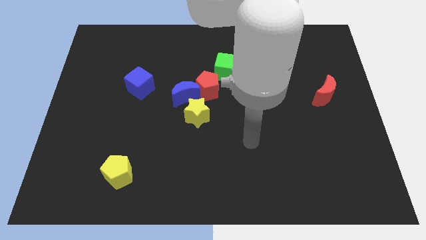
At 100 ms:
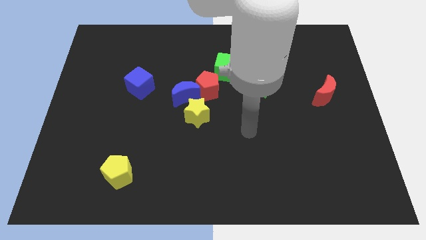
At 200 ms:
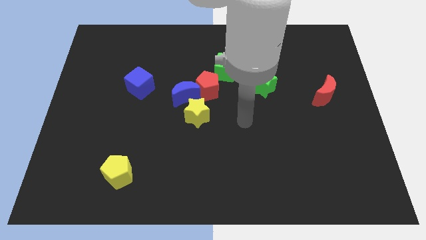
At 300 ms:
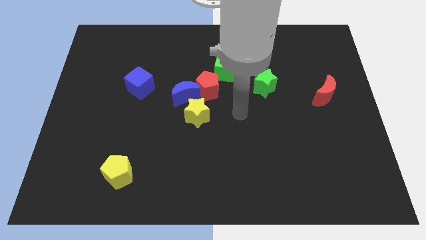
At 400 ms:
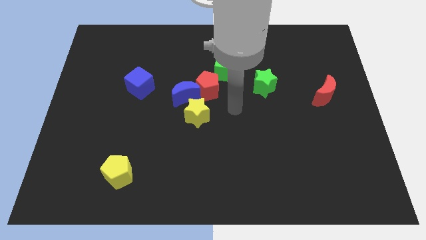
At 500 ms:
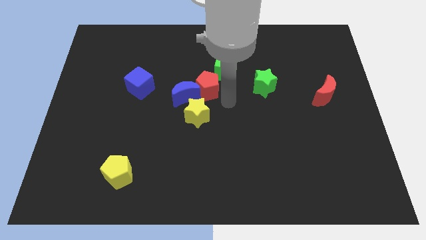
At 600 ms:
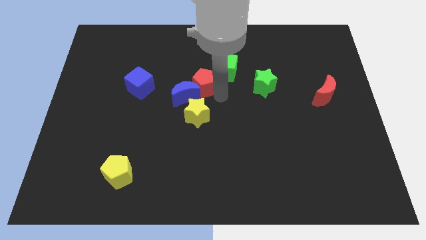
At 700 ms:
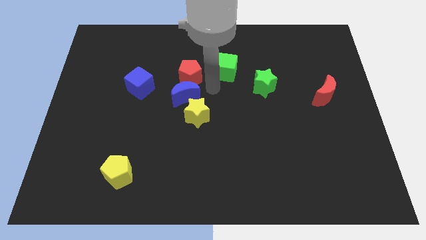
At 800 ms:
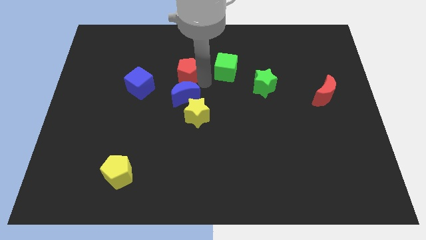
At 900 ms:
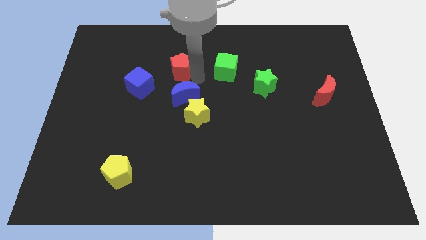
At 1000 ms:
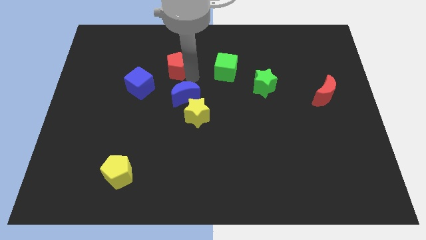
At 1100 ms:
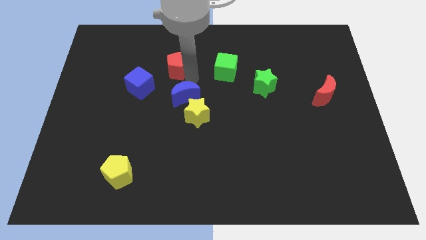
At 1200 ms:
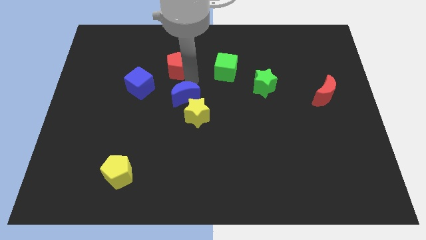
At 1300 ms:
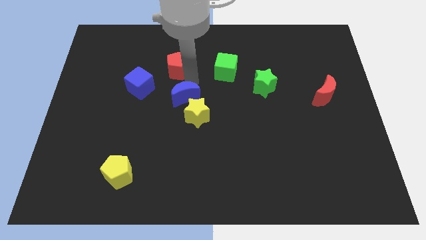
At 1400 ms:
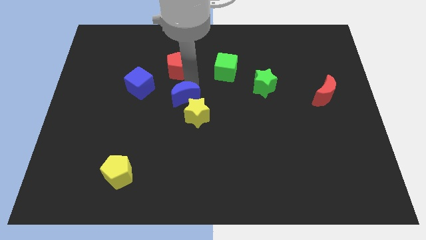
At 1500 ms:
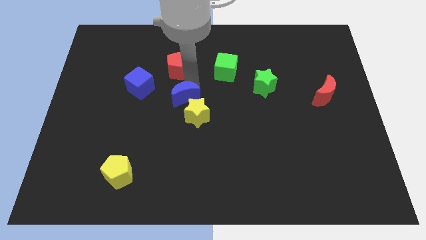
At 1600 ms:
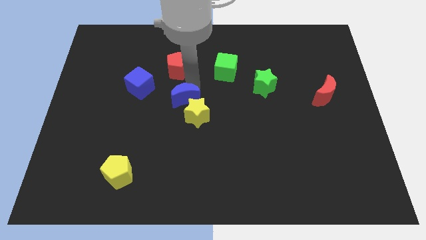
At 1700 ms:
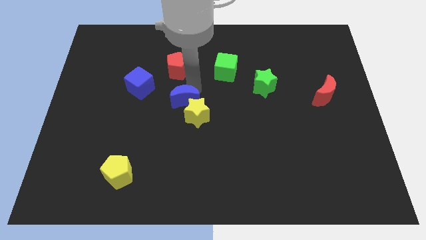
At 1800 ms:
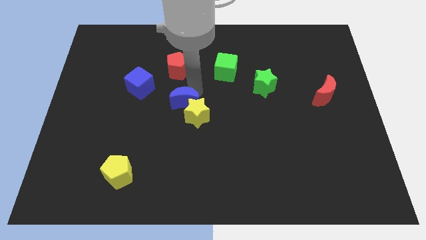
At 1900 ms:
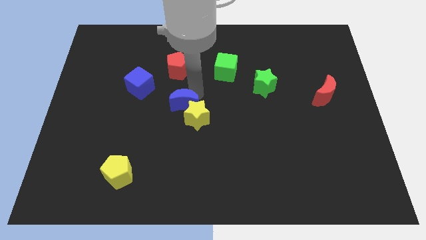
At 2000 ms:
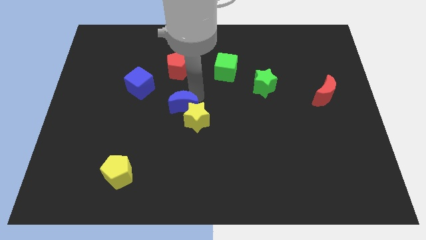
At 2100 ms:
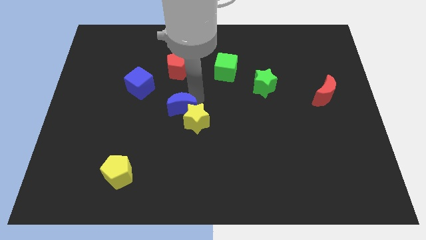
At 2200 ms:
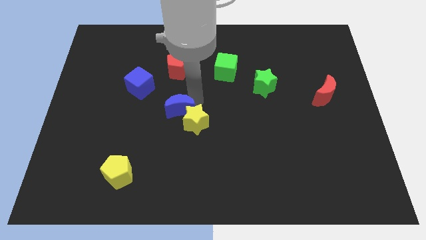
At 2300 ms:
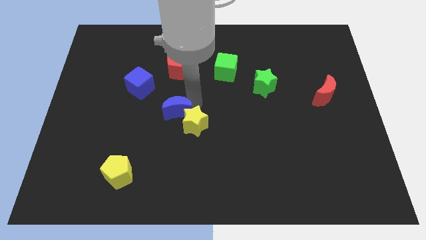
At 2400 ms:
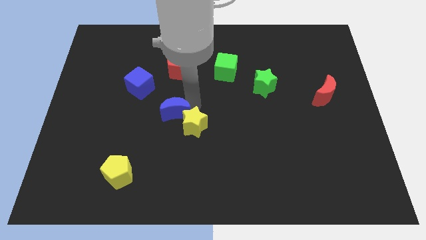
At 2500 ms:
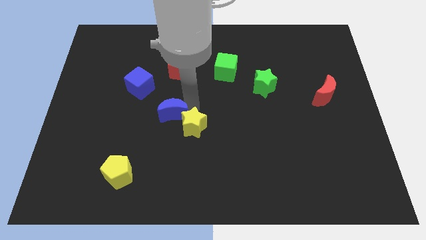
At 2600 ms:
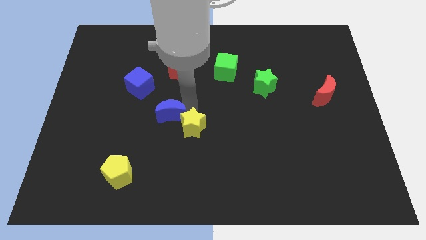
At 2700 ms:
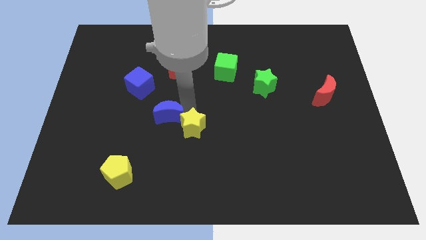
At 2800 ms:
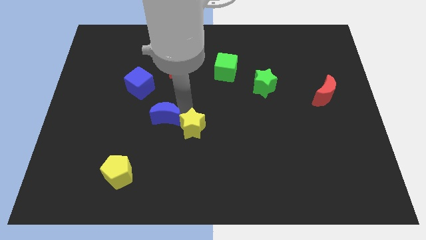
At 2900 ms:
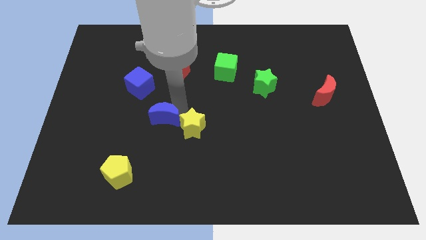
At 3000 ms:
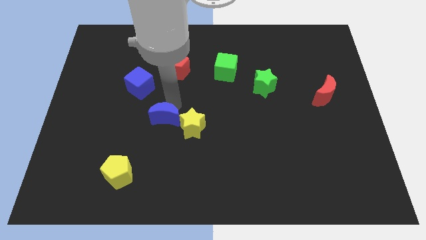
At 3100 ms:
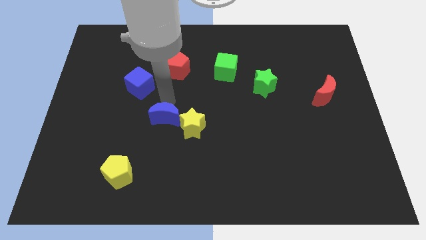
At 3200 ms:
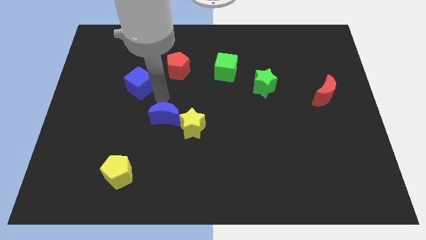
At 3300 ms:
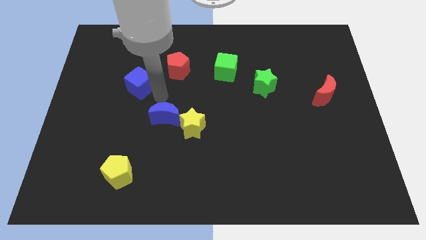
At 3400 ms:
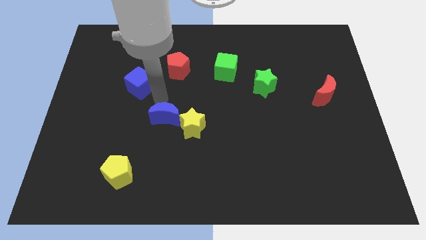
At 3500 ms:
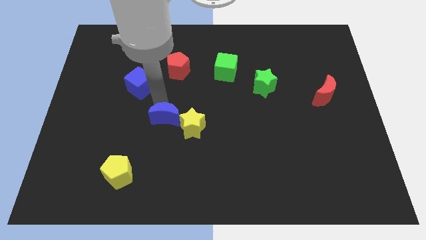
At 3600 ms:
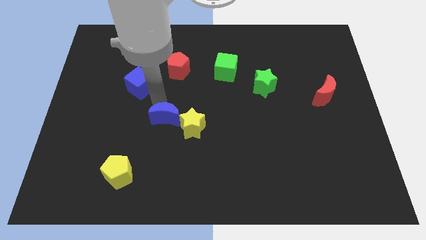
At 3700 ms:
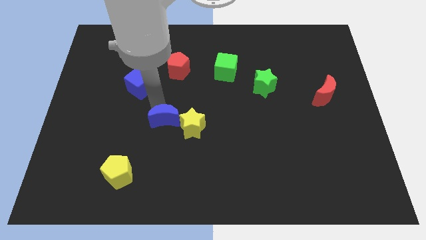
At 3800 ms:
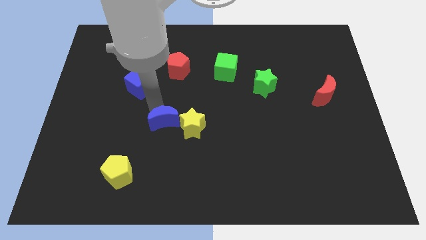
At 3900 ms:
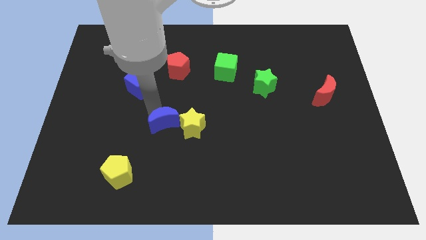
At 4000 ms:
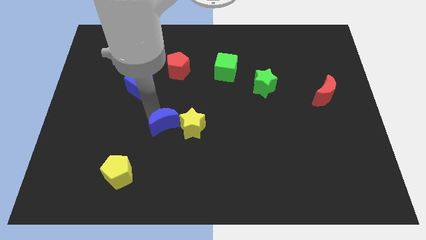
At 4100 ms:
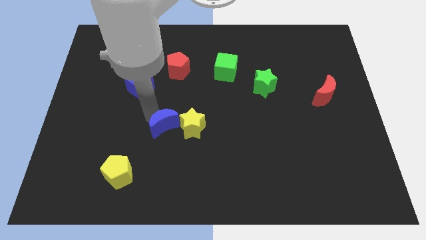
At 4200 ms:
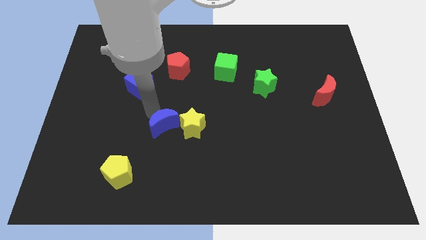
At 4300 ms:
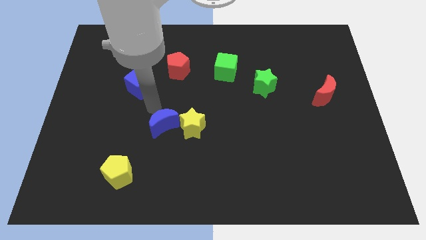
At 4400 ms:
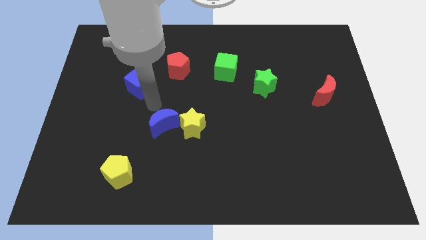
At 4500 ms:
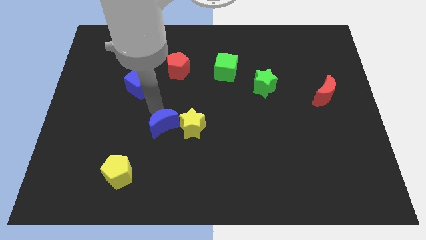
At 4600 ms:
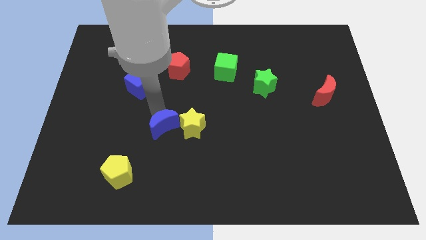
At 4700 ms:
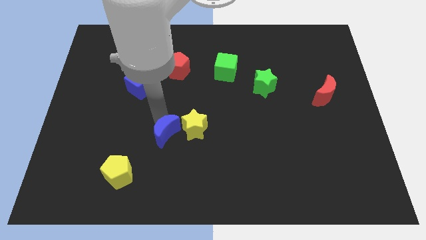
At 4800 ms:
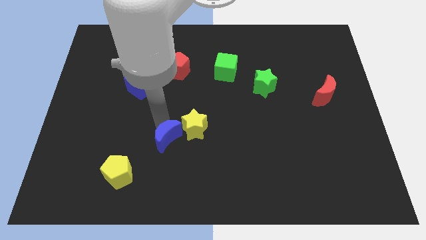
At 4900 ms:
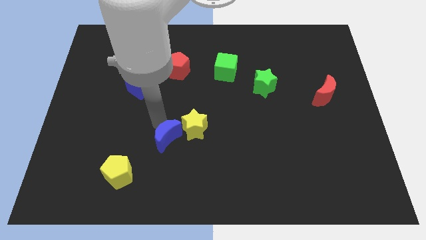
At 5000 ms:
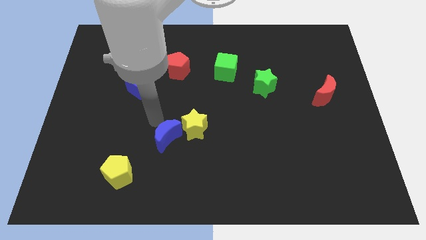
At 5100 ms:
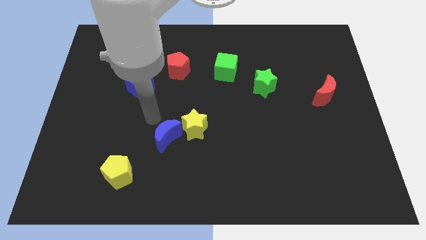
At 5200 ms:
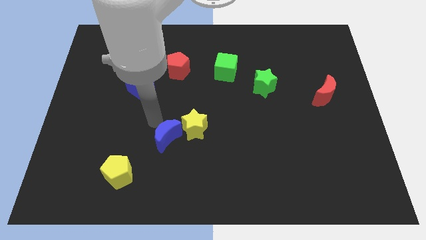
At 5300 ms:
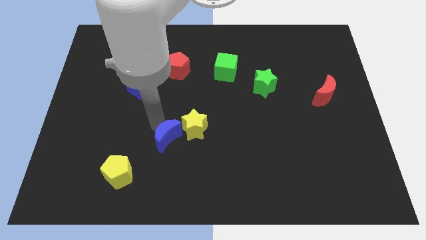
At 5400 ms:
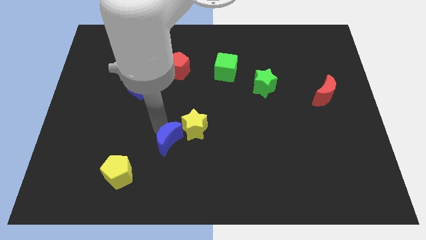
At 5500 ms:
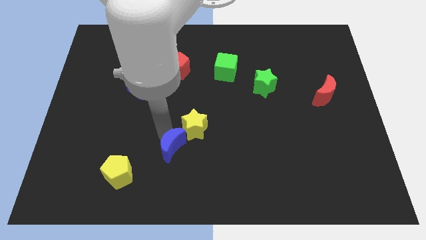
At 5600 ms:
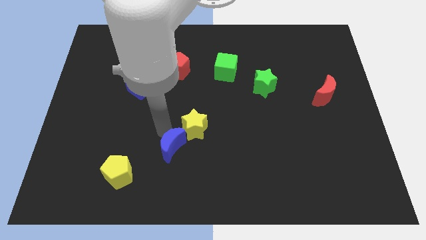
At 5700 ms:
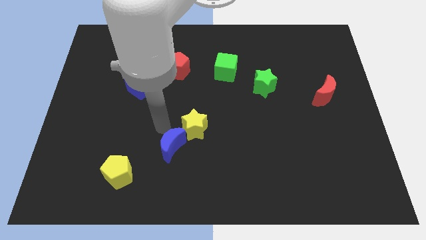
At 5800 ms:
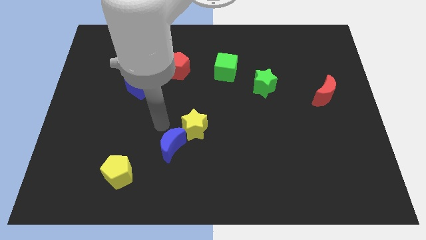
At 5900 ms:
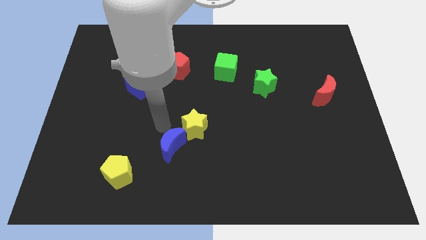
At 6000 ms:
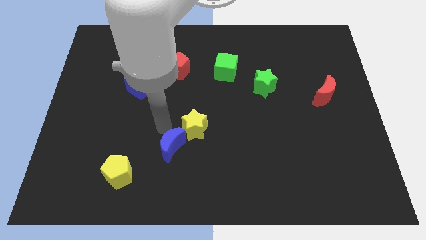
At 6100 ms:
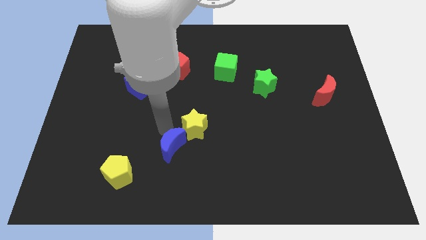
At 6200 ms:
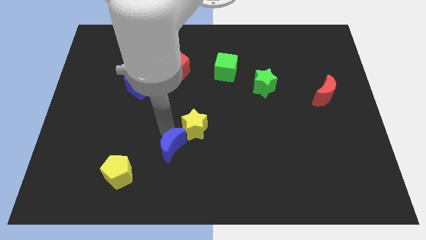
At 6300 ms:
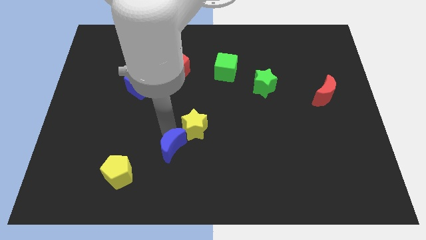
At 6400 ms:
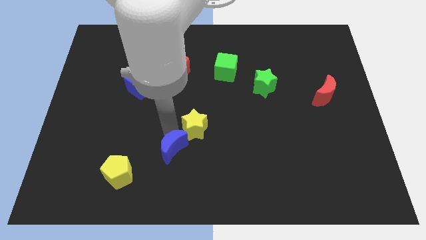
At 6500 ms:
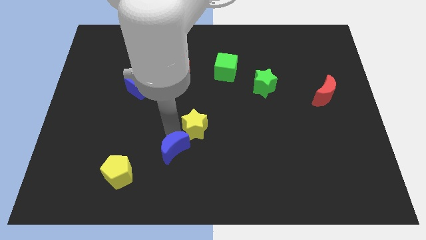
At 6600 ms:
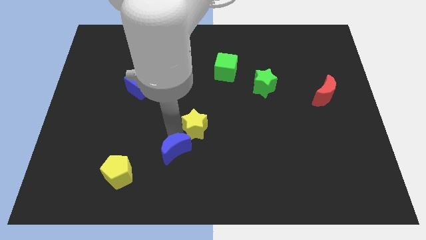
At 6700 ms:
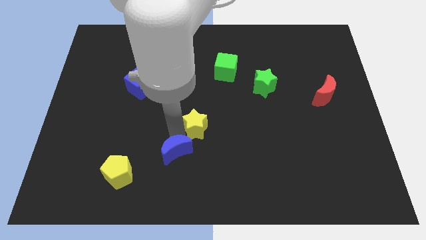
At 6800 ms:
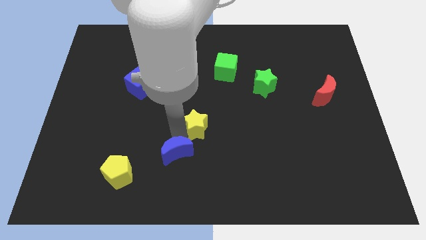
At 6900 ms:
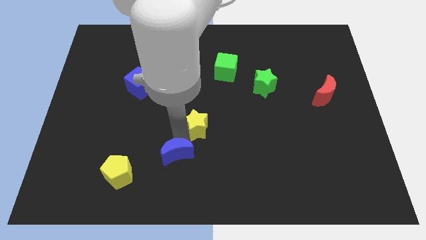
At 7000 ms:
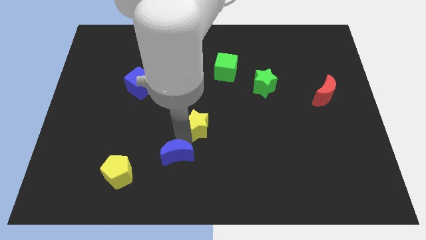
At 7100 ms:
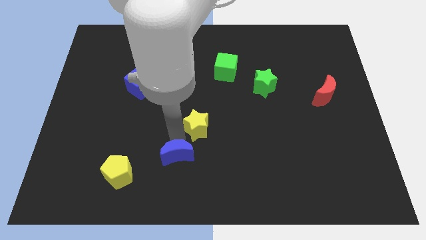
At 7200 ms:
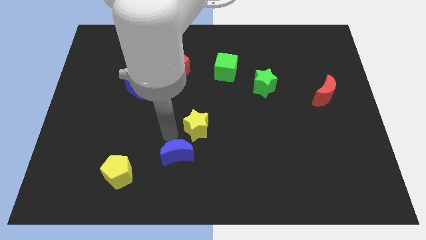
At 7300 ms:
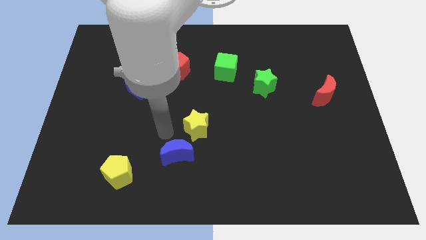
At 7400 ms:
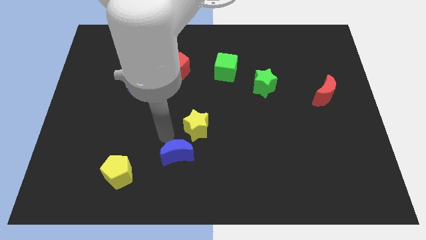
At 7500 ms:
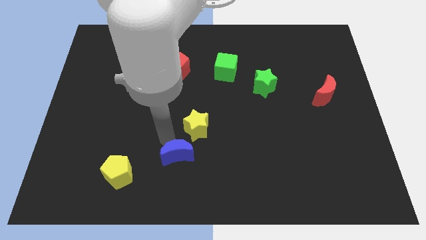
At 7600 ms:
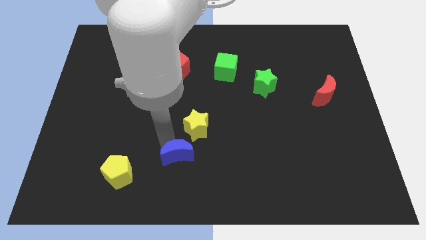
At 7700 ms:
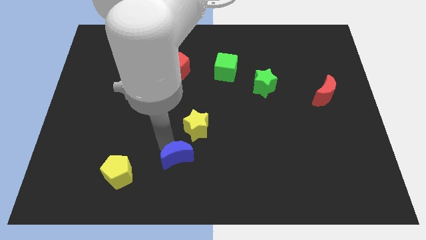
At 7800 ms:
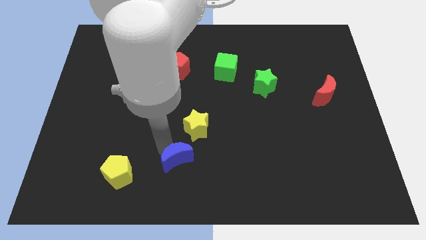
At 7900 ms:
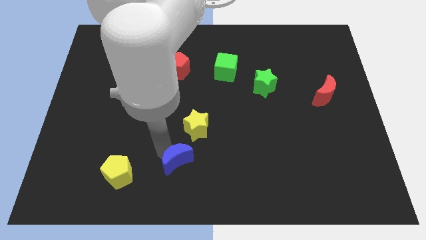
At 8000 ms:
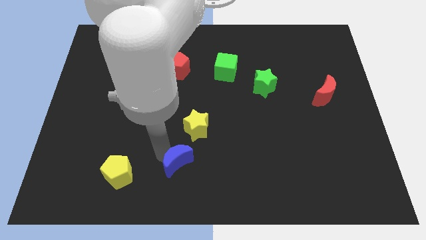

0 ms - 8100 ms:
push the blue moon to the bottom

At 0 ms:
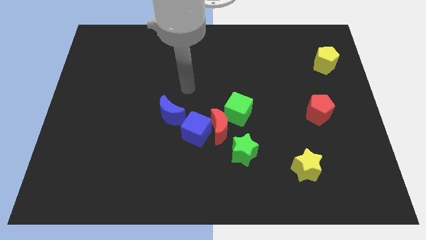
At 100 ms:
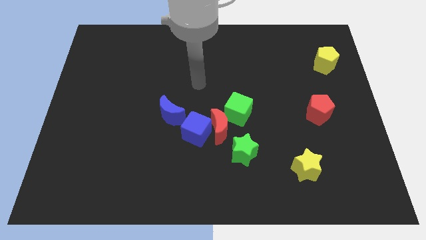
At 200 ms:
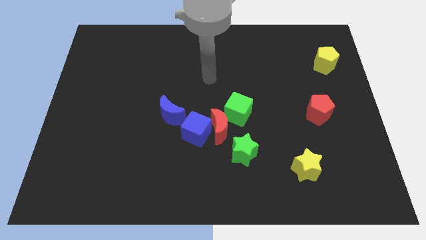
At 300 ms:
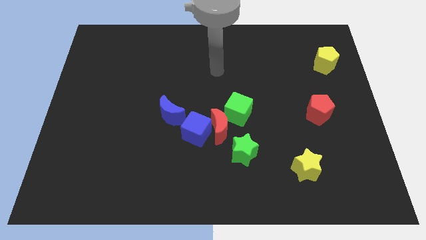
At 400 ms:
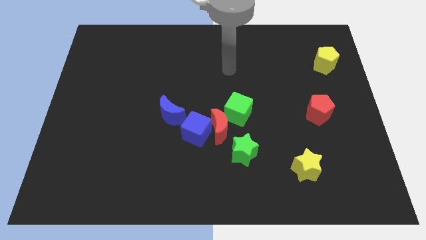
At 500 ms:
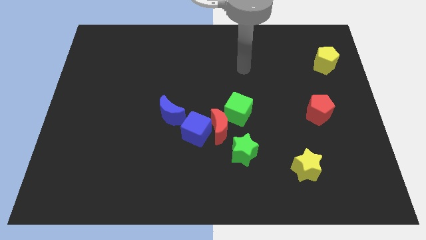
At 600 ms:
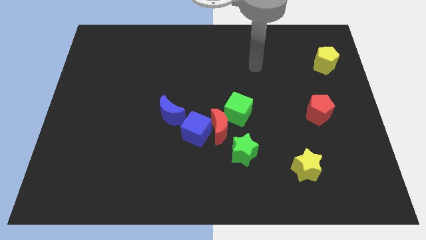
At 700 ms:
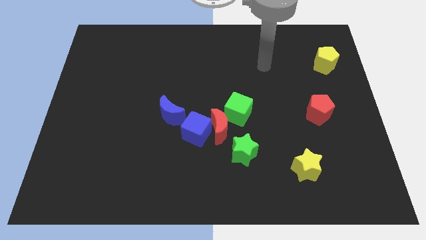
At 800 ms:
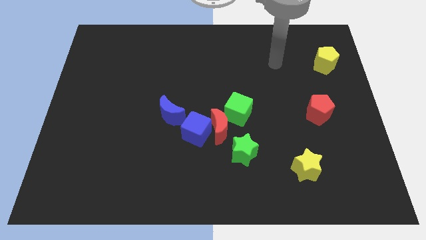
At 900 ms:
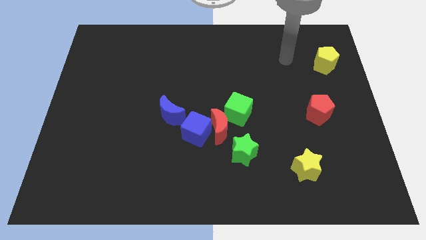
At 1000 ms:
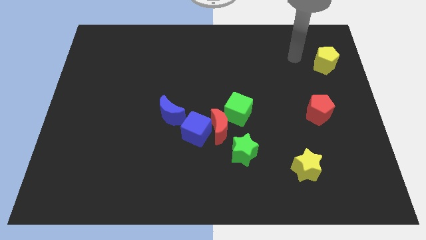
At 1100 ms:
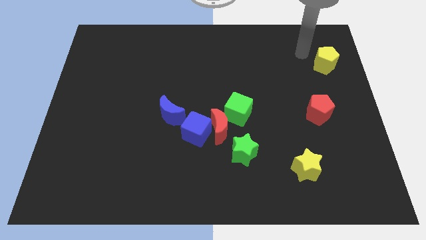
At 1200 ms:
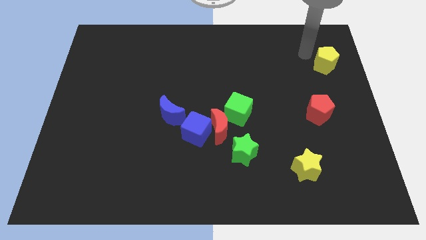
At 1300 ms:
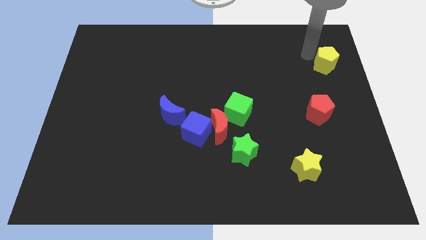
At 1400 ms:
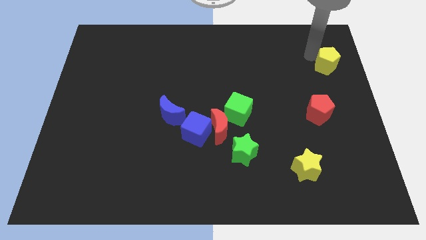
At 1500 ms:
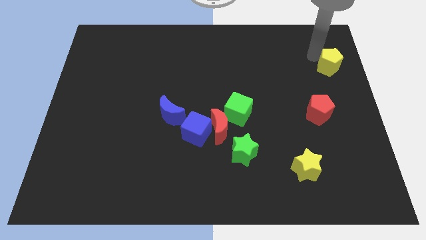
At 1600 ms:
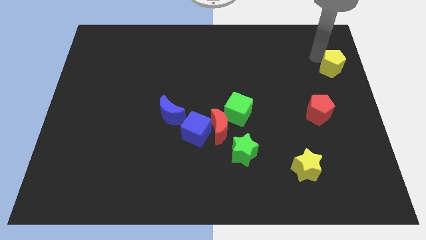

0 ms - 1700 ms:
put the yellow pentagon to the right side
